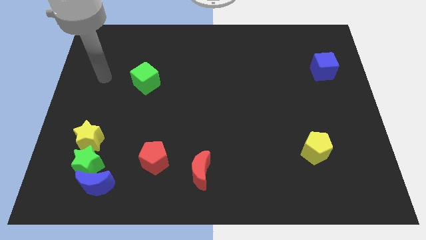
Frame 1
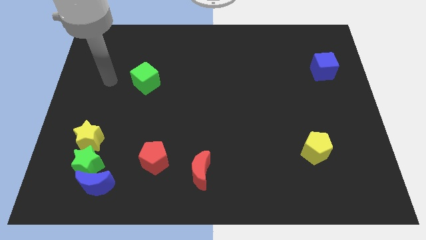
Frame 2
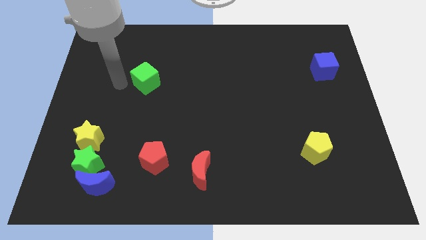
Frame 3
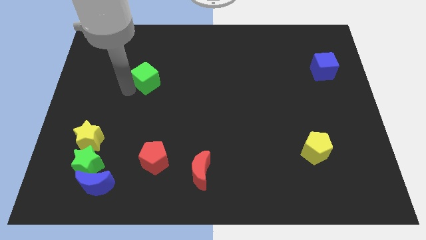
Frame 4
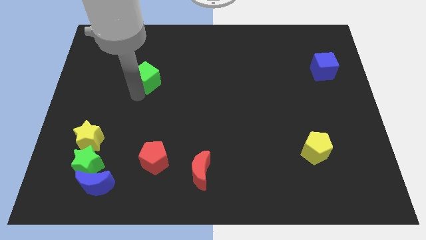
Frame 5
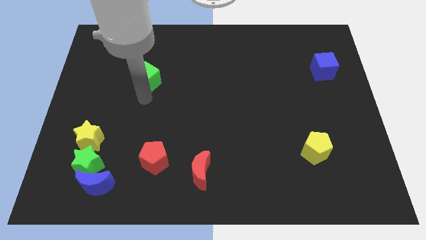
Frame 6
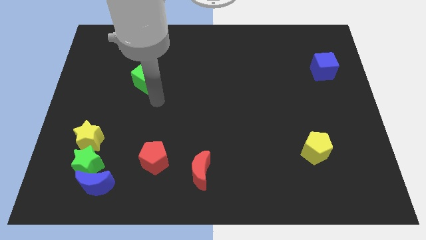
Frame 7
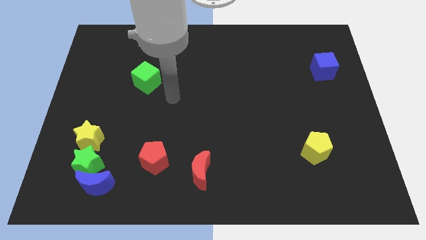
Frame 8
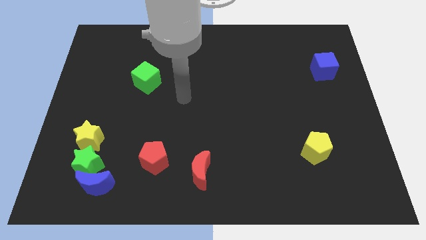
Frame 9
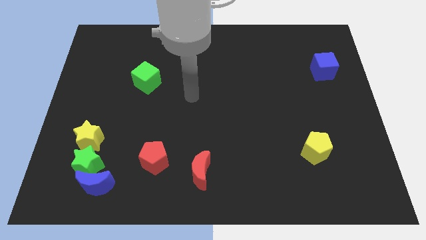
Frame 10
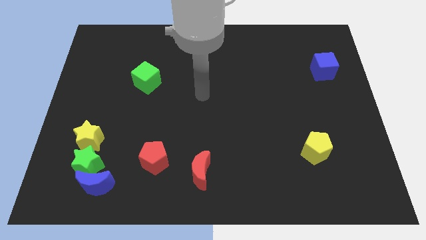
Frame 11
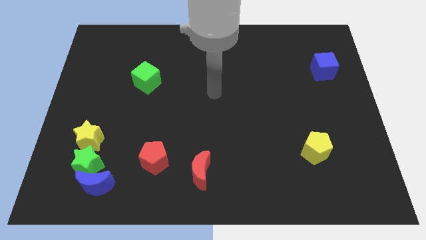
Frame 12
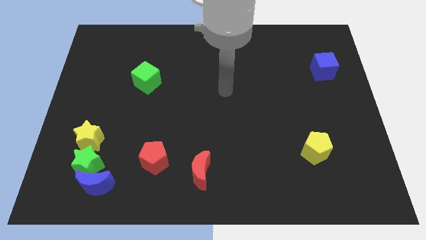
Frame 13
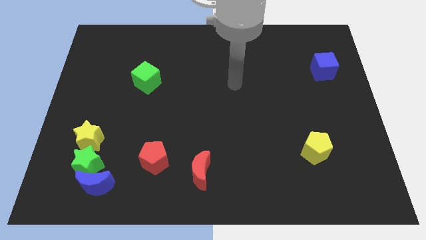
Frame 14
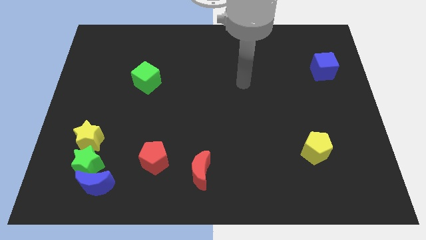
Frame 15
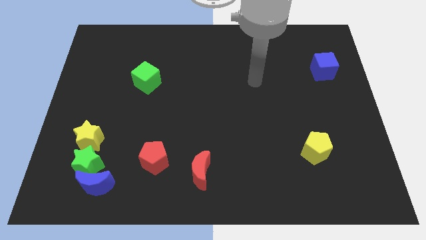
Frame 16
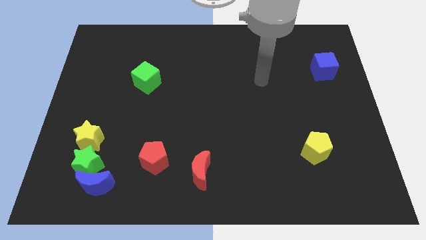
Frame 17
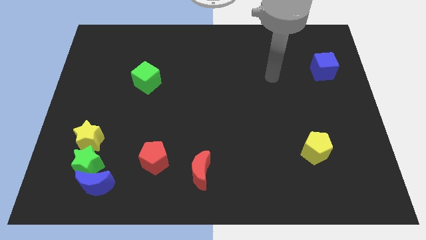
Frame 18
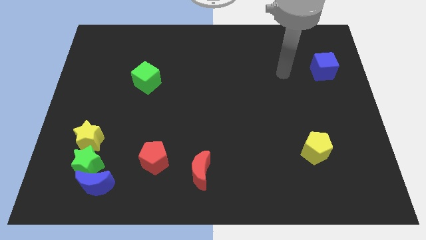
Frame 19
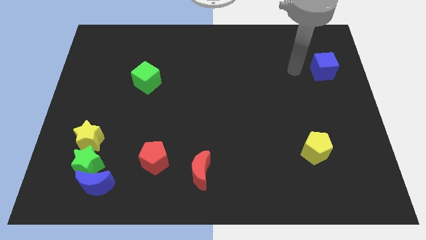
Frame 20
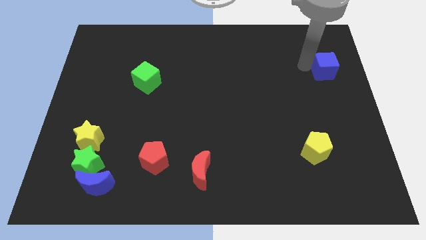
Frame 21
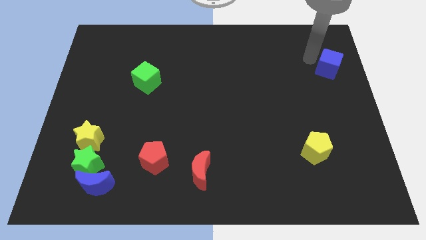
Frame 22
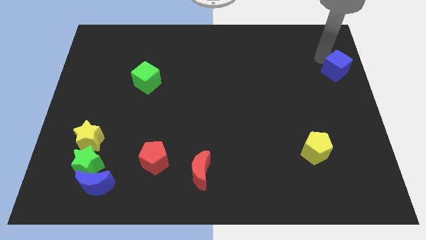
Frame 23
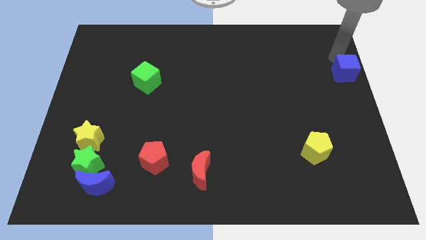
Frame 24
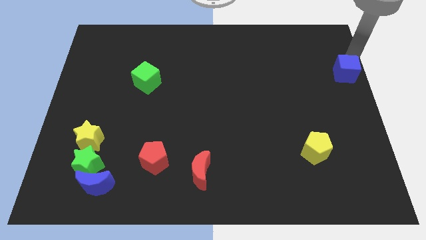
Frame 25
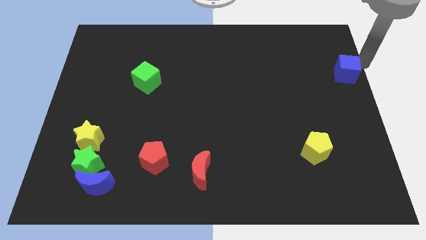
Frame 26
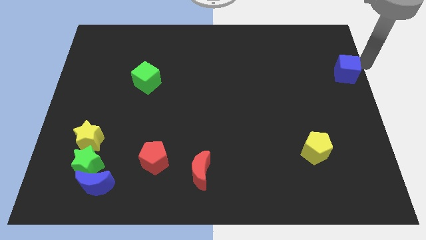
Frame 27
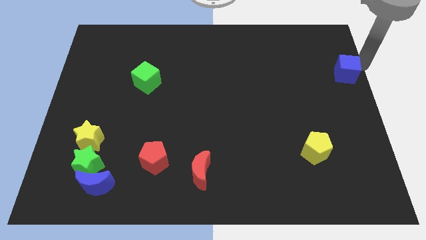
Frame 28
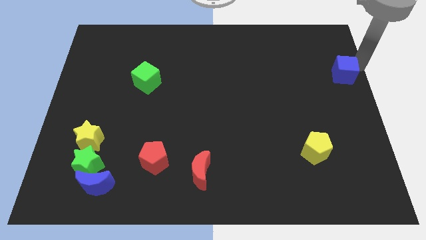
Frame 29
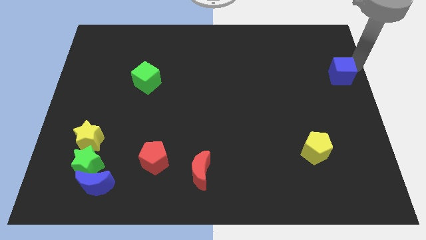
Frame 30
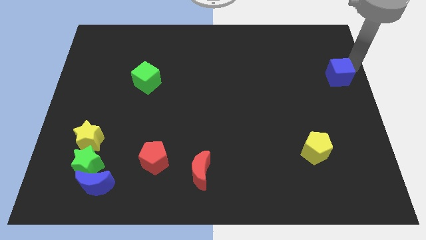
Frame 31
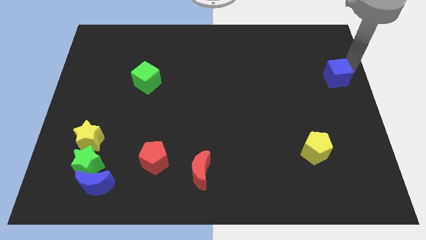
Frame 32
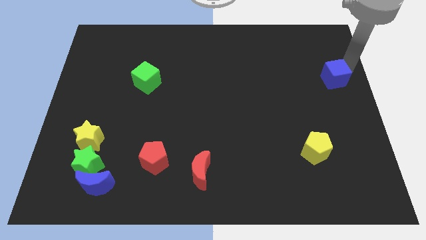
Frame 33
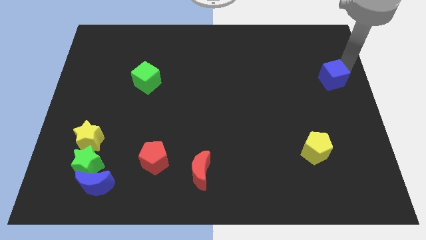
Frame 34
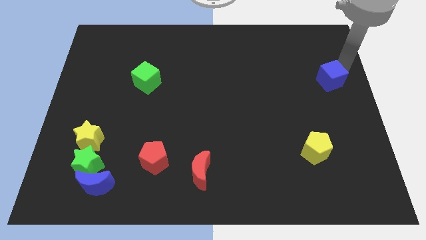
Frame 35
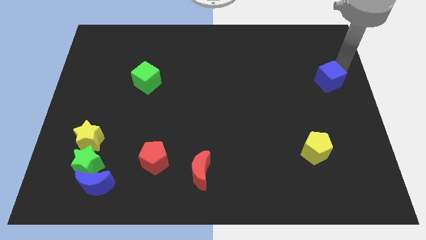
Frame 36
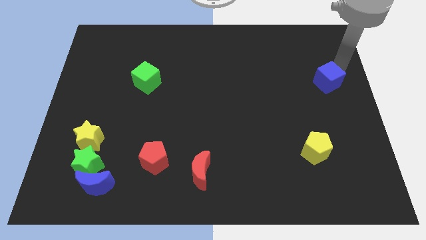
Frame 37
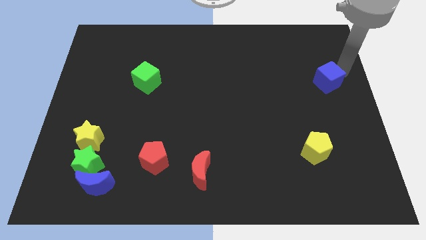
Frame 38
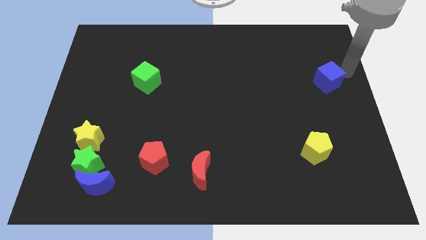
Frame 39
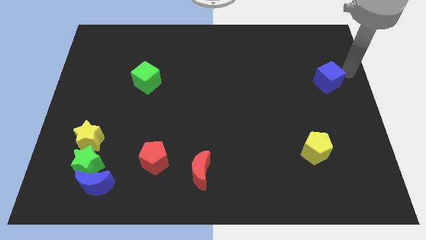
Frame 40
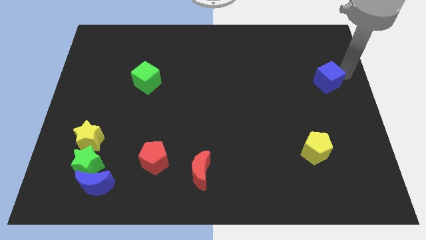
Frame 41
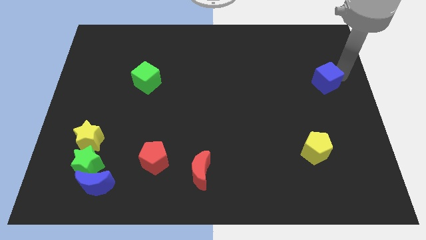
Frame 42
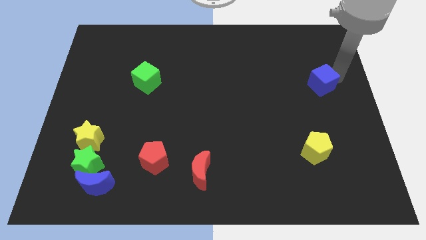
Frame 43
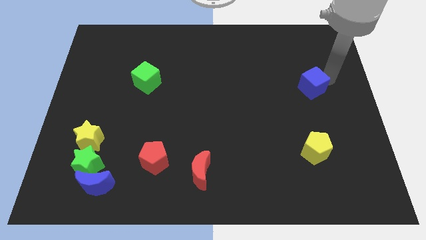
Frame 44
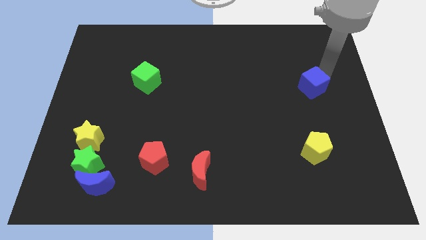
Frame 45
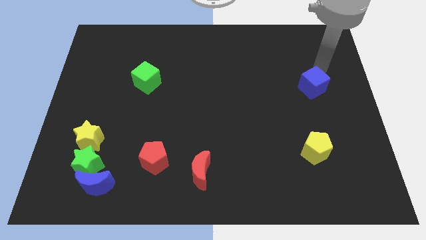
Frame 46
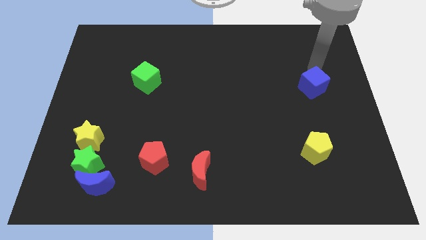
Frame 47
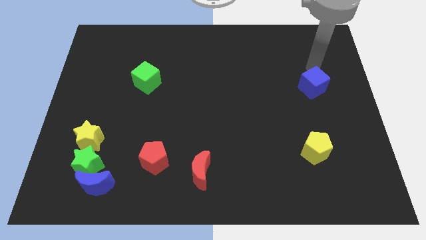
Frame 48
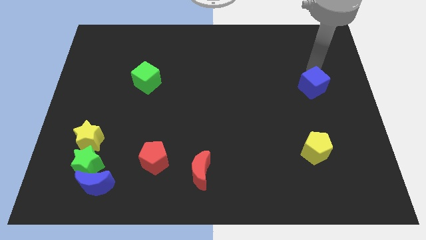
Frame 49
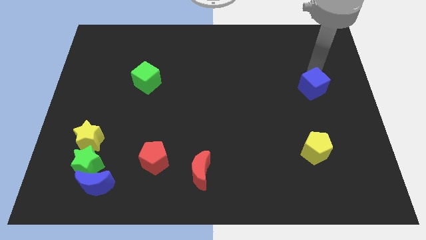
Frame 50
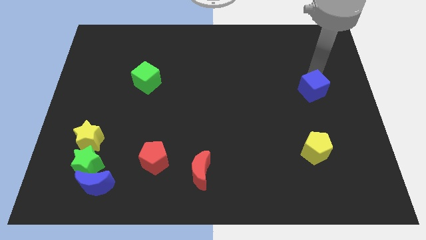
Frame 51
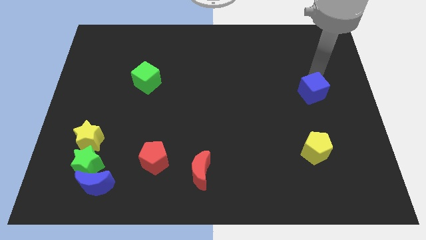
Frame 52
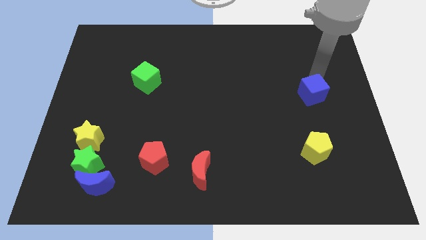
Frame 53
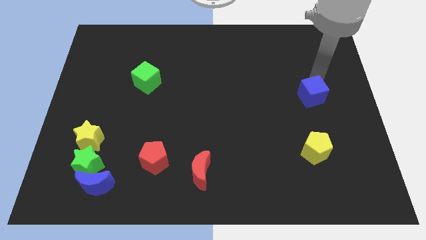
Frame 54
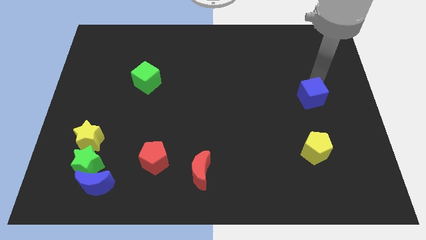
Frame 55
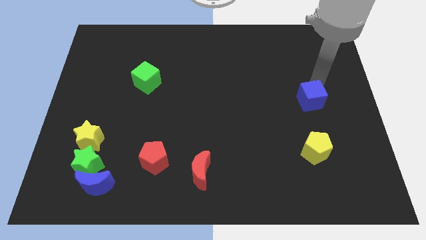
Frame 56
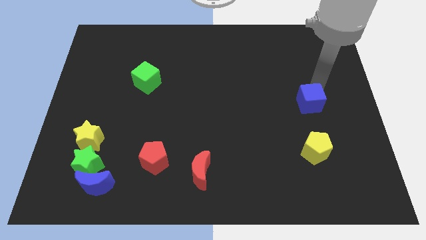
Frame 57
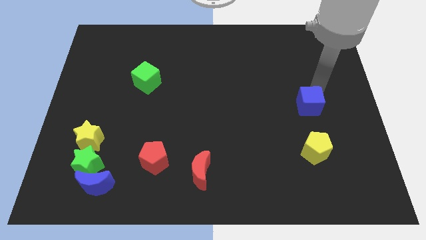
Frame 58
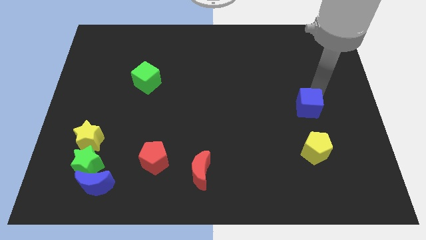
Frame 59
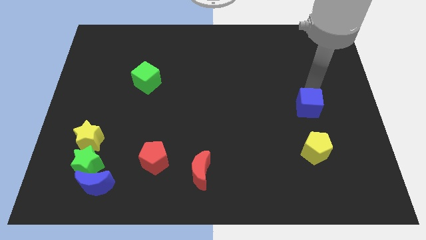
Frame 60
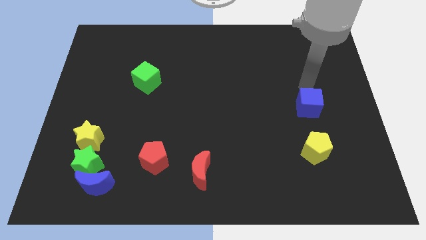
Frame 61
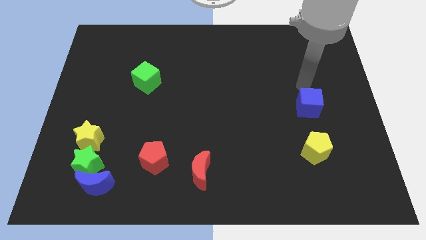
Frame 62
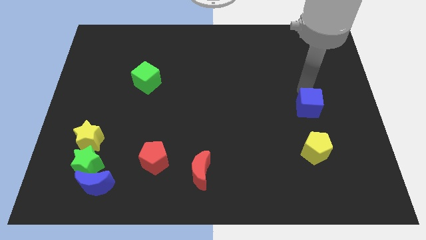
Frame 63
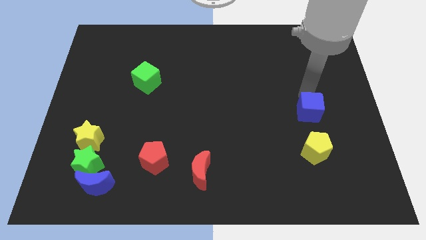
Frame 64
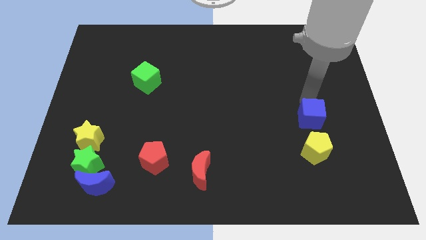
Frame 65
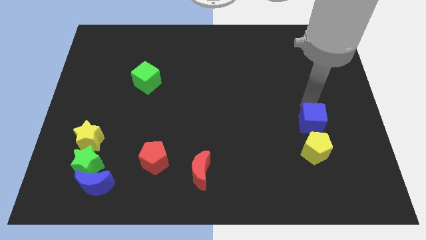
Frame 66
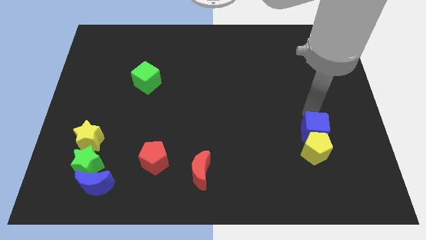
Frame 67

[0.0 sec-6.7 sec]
push the blue cube towards the yellow pentagon
